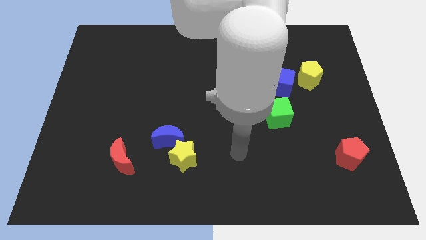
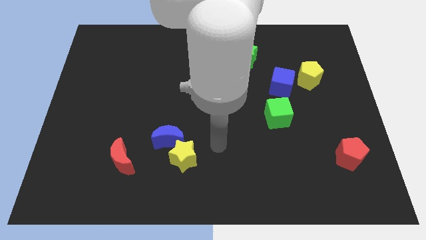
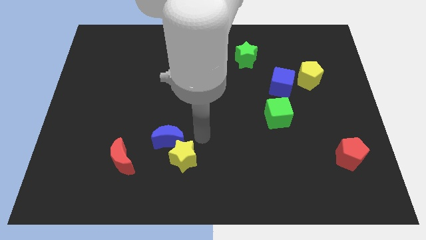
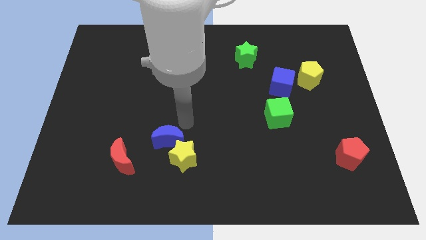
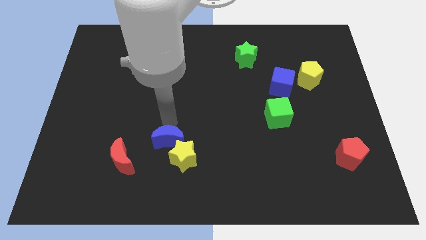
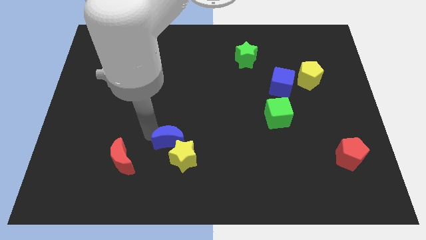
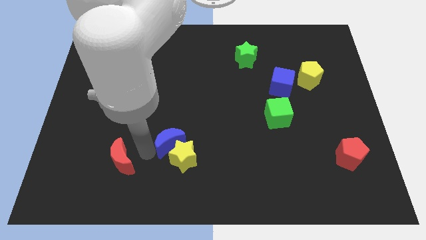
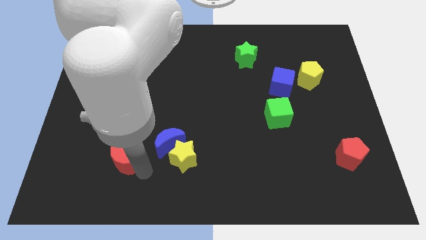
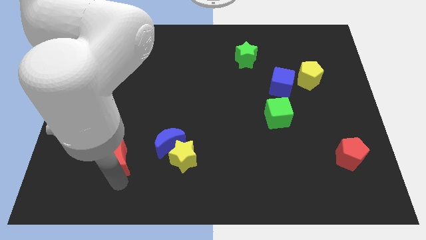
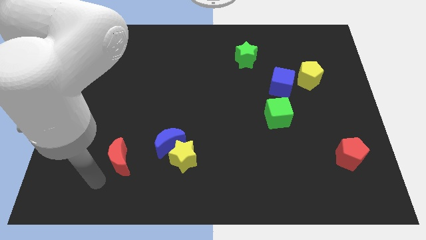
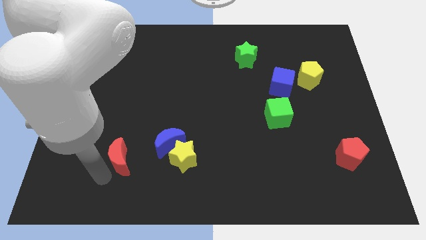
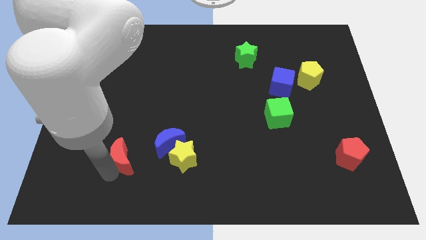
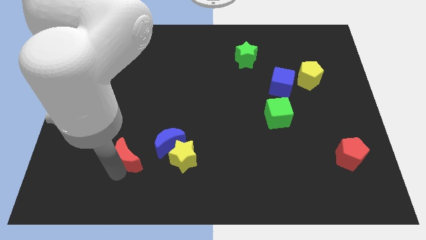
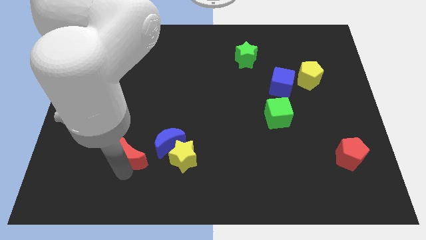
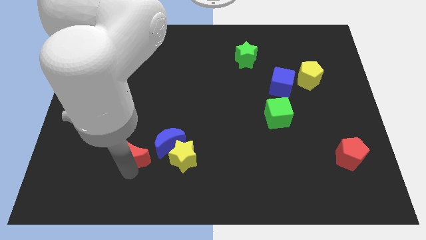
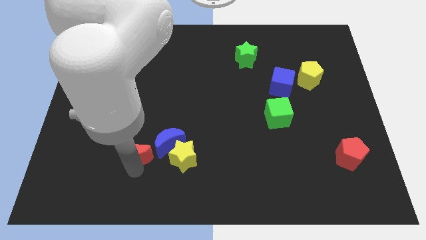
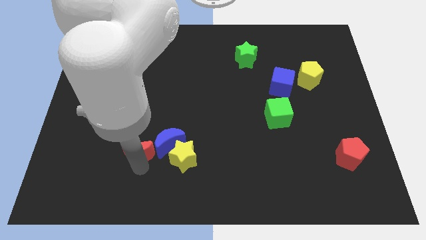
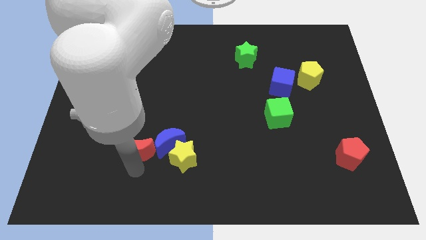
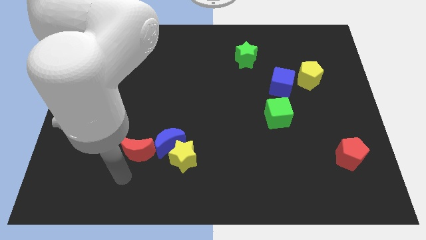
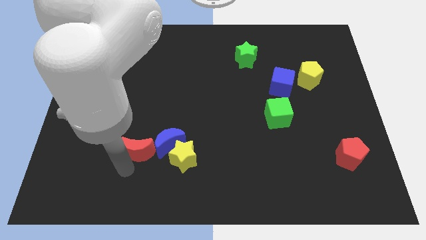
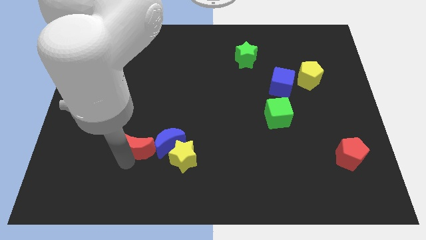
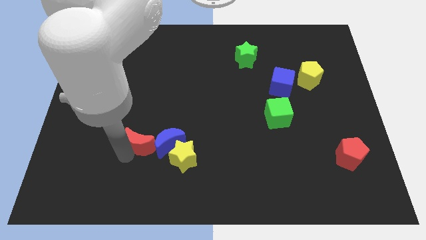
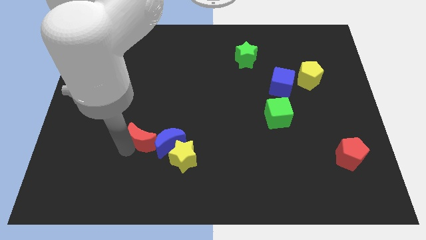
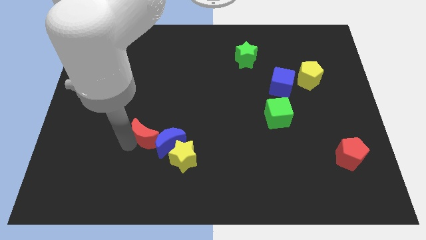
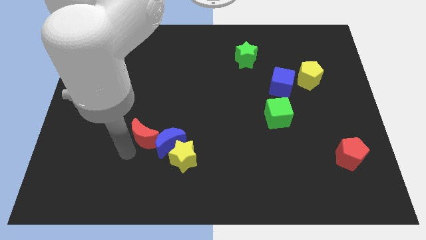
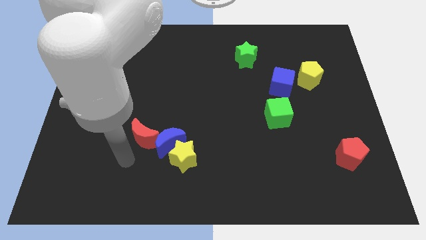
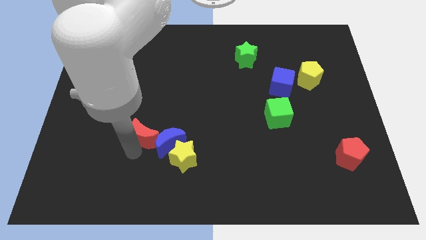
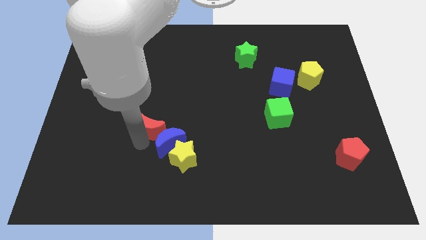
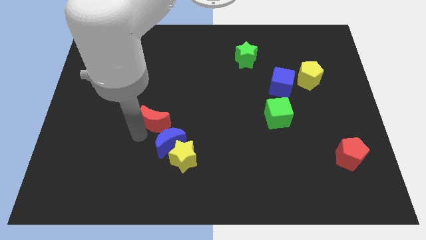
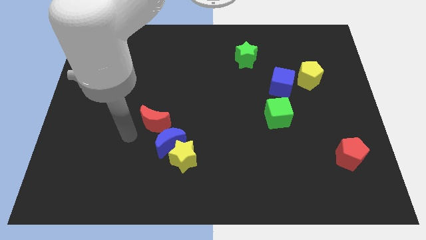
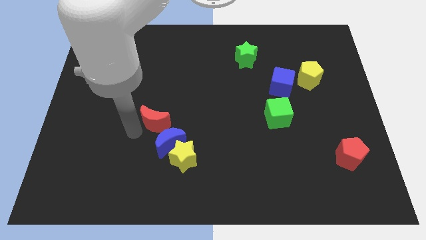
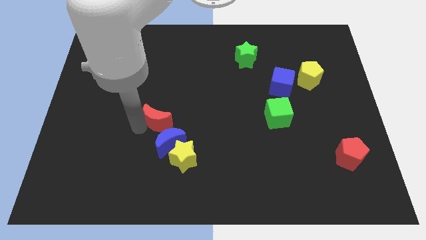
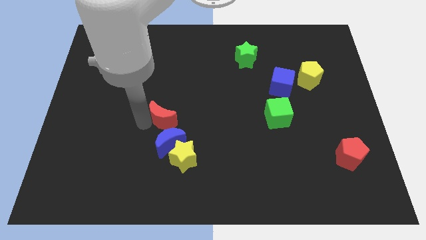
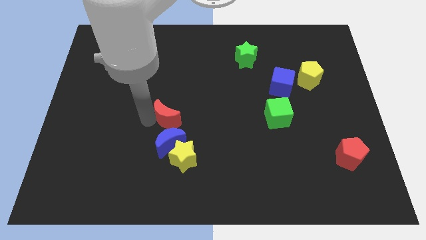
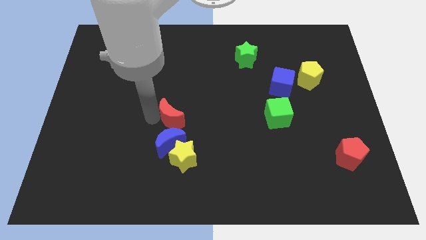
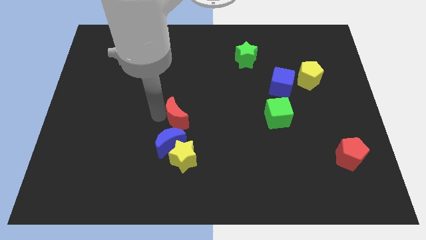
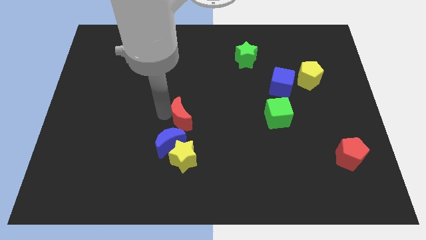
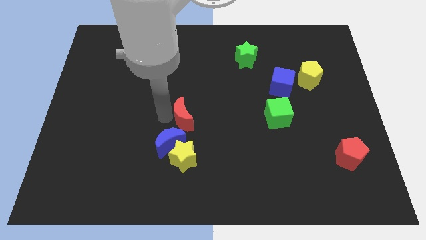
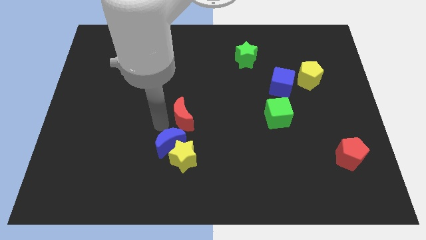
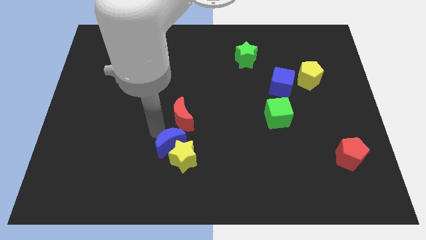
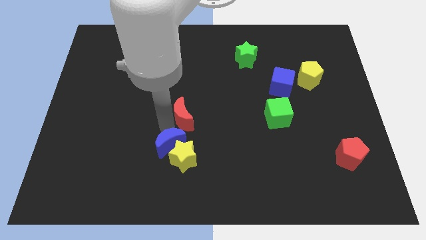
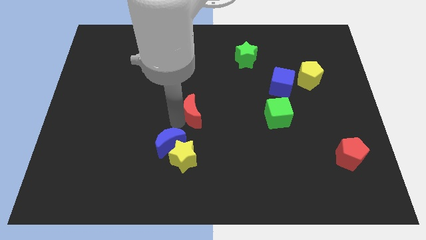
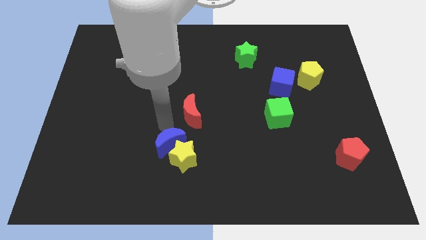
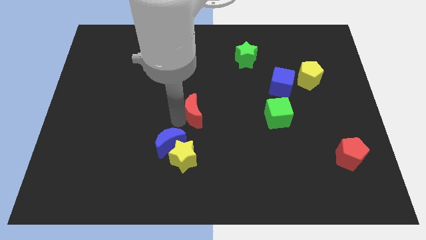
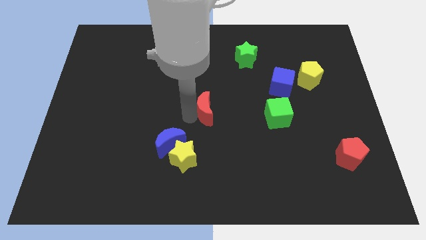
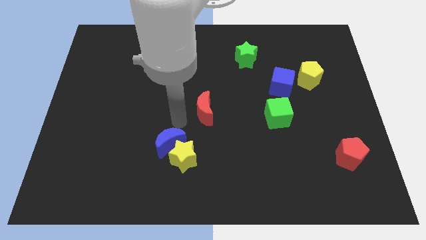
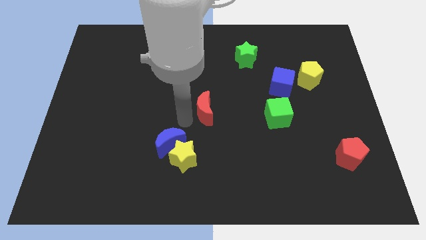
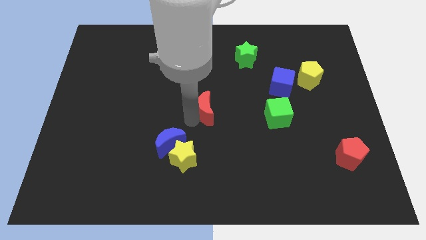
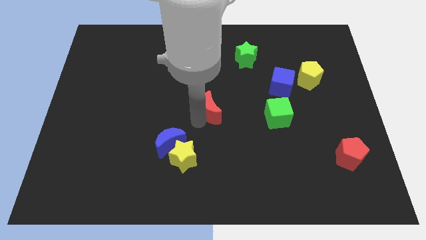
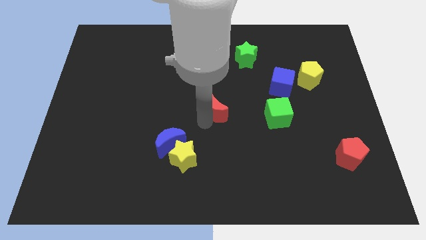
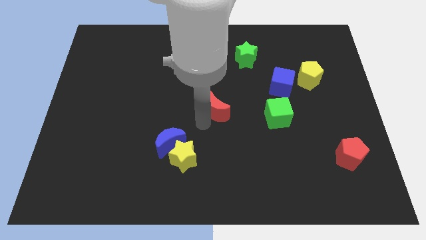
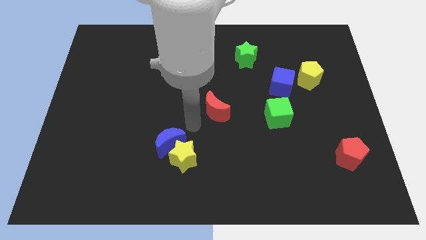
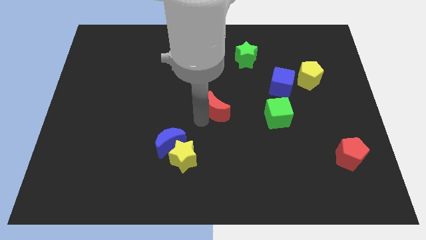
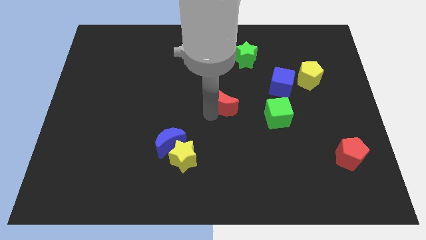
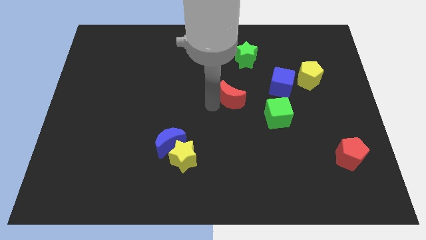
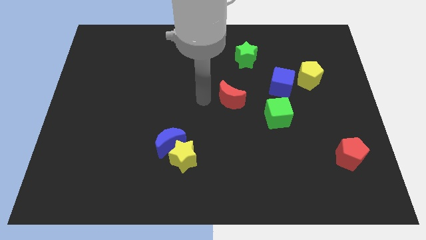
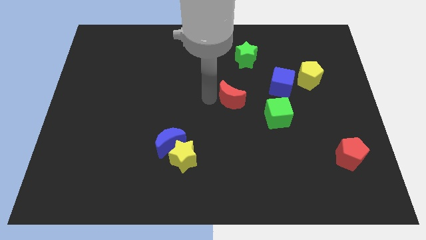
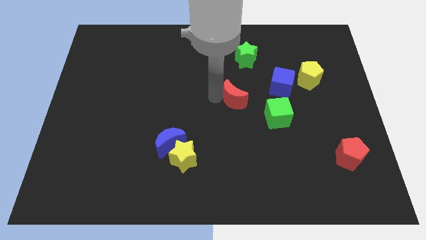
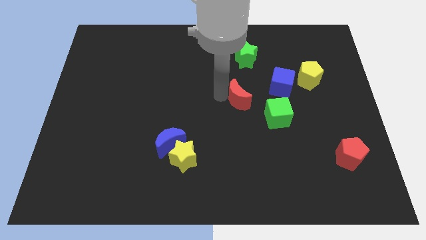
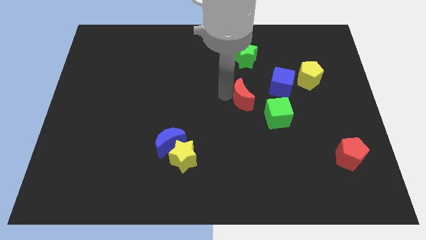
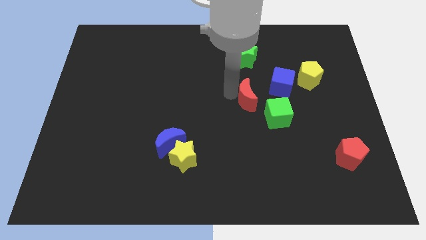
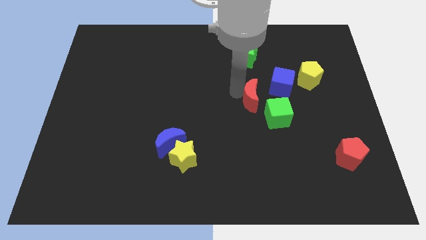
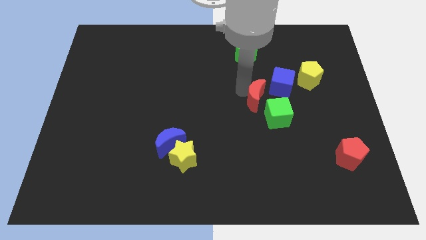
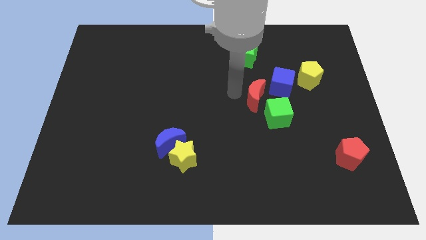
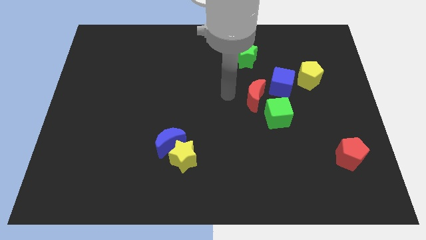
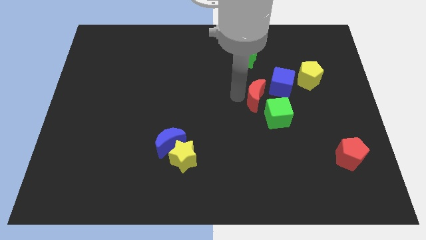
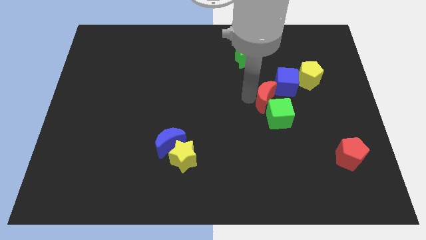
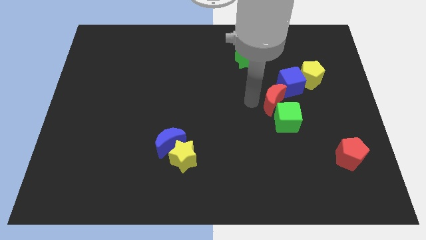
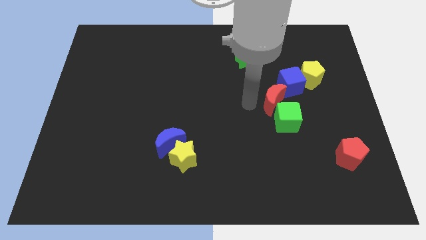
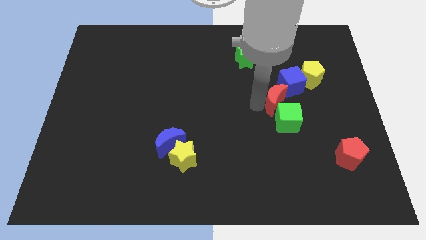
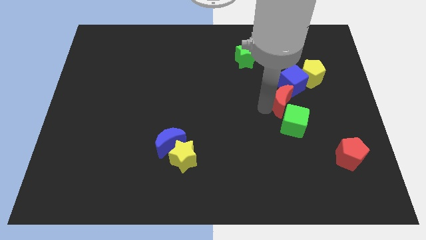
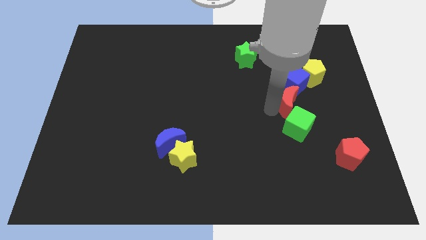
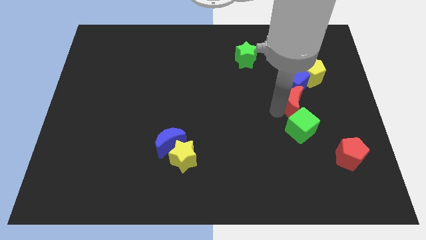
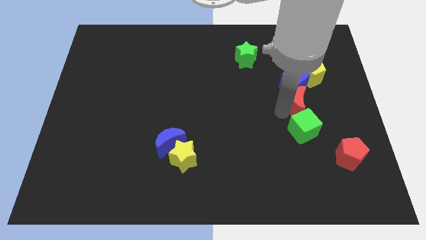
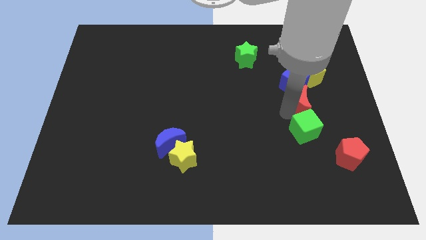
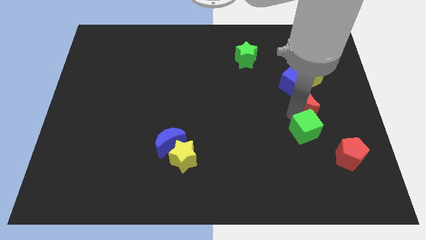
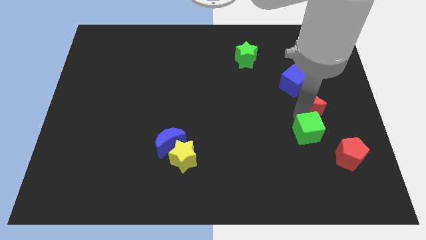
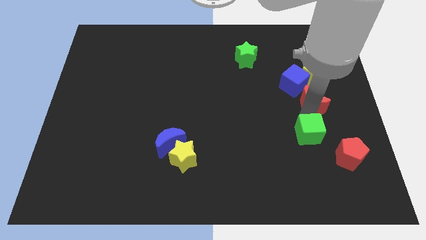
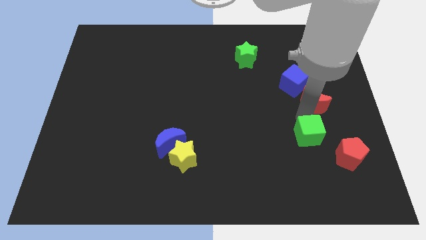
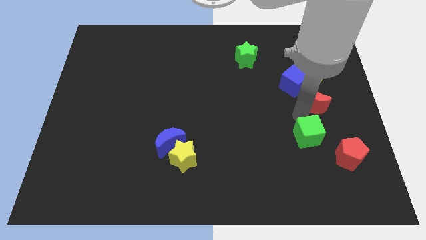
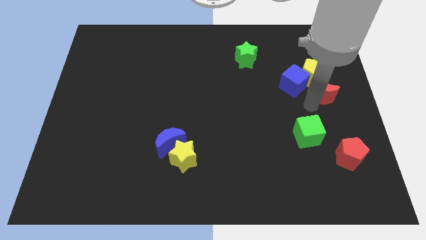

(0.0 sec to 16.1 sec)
put the red moon to the right of the blue cube
